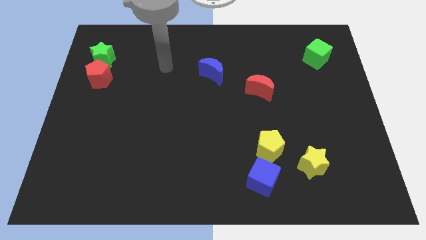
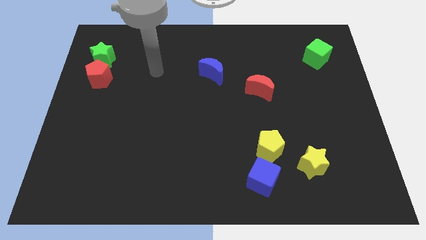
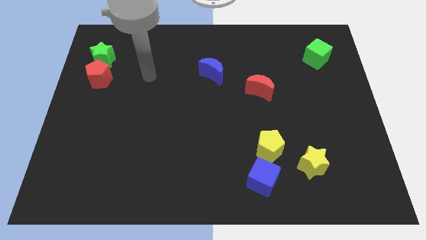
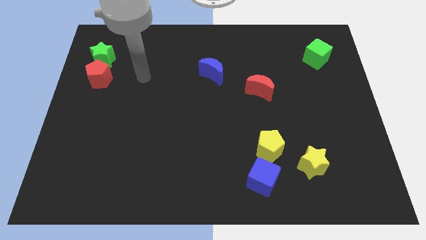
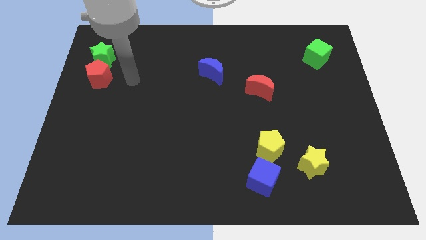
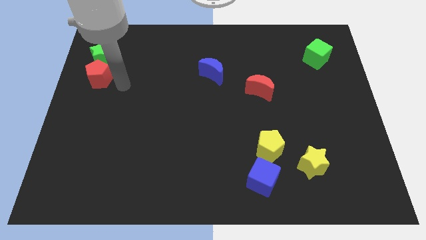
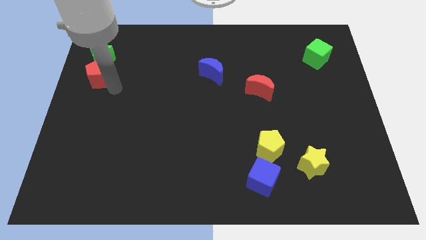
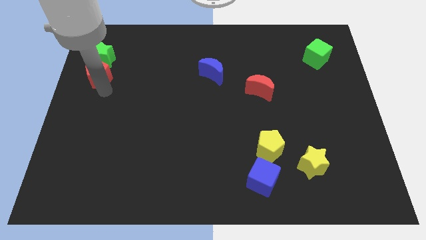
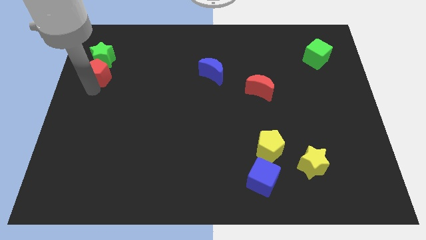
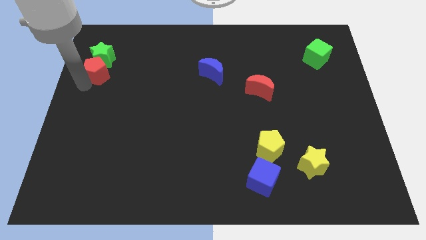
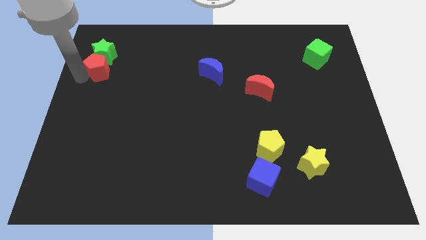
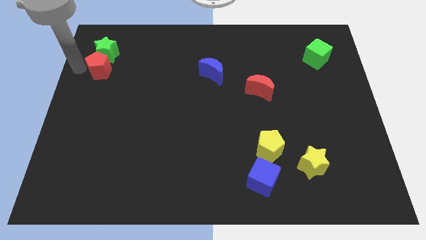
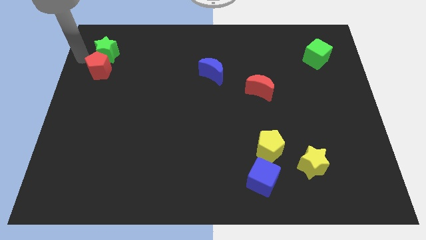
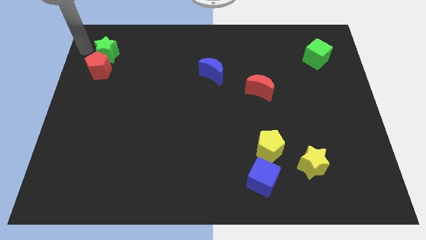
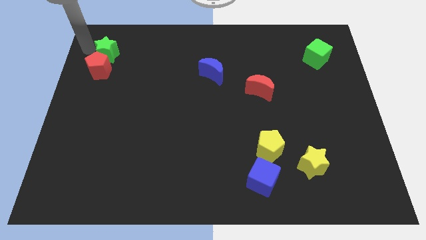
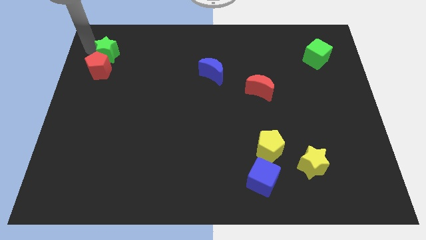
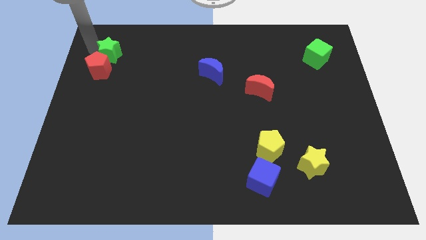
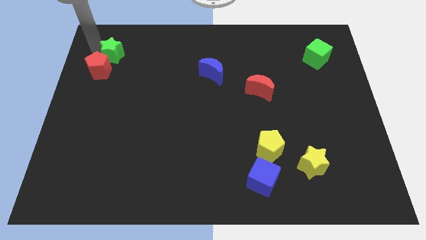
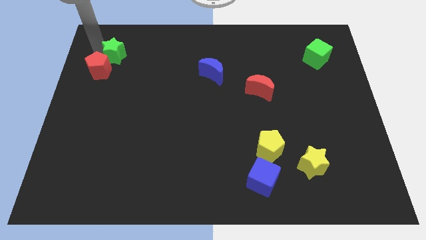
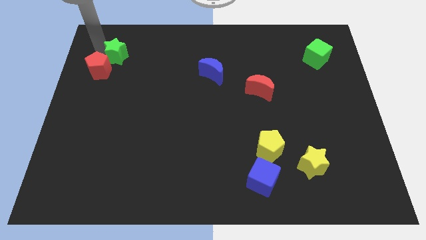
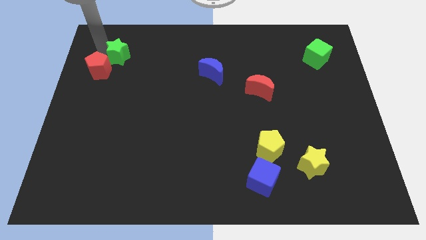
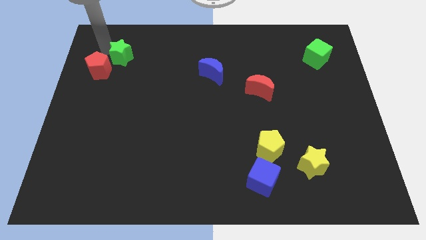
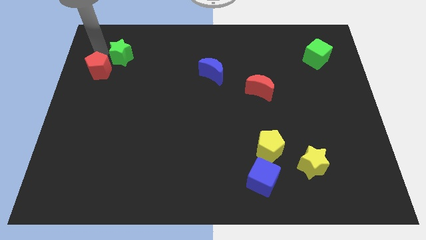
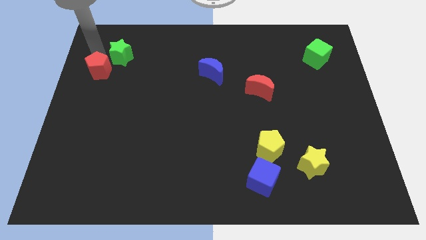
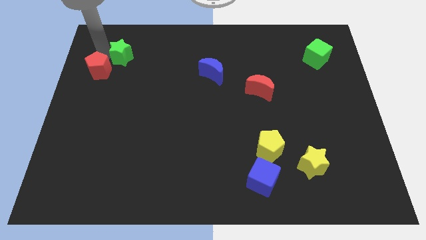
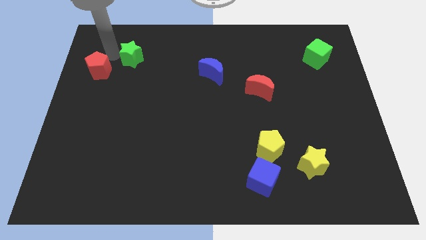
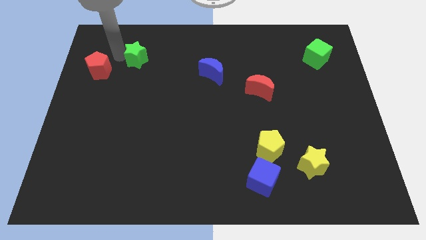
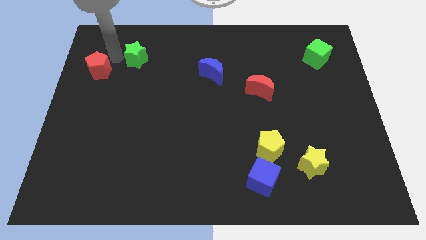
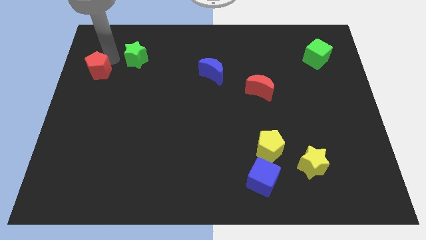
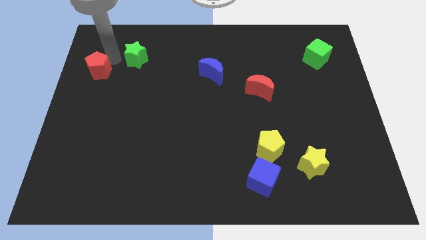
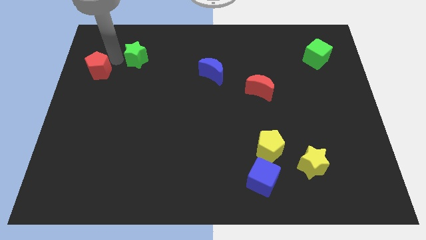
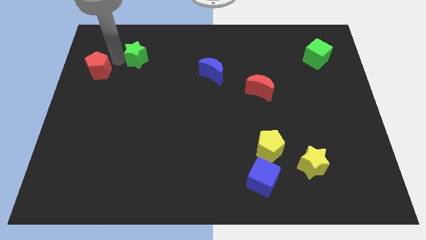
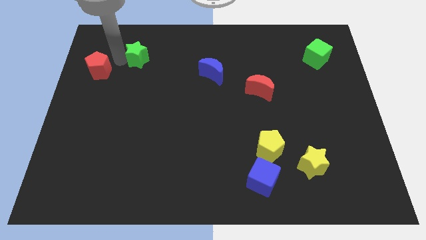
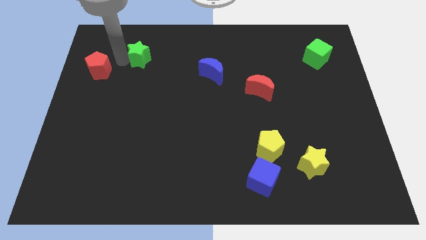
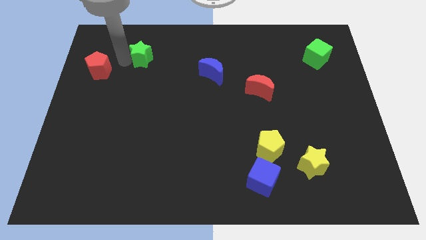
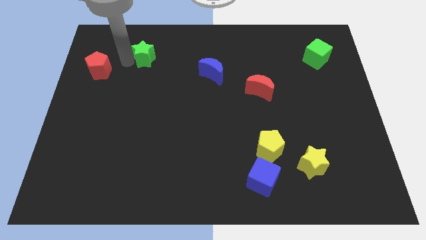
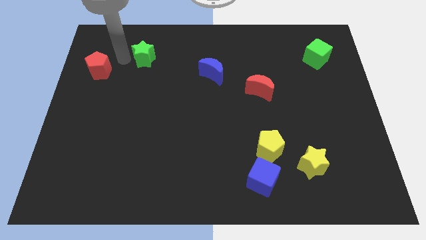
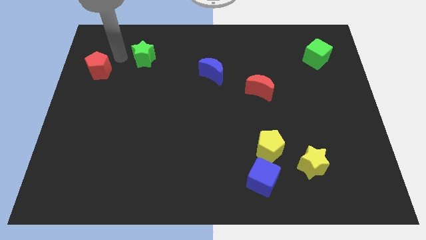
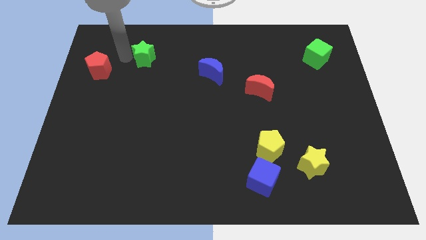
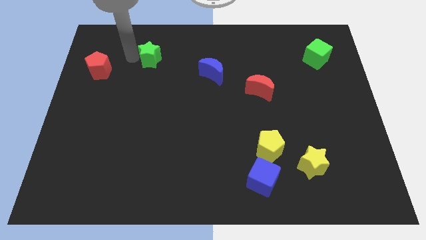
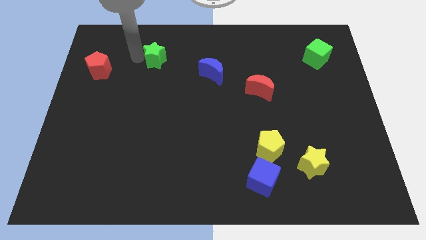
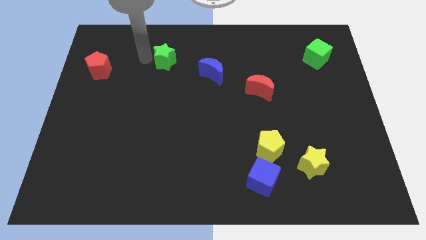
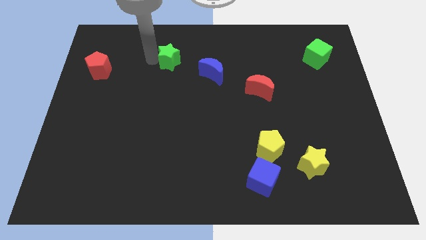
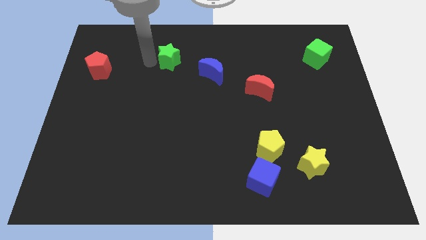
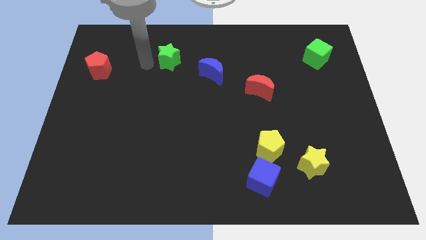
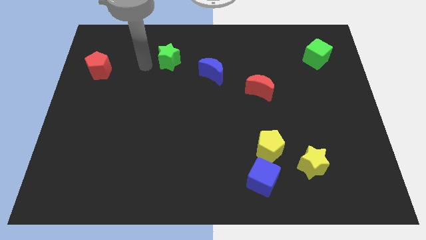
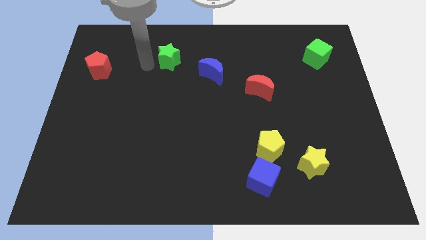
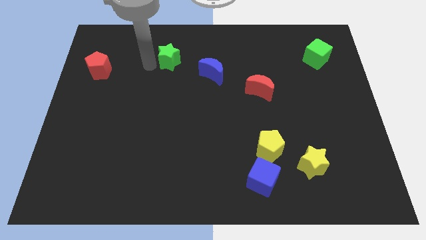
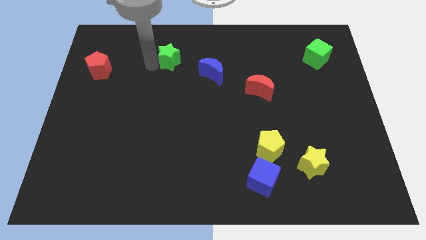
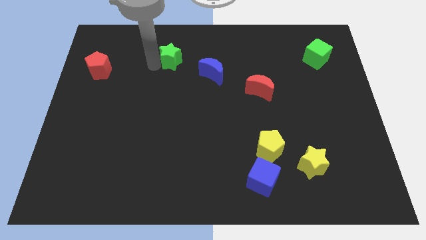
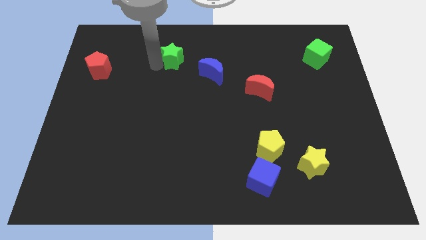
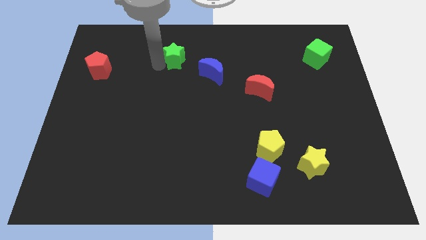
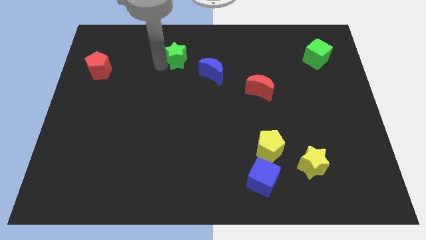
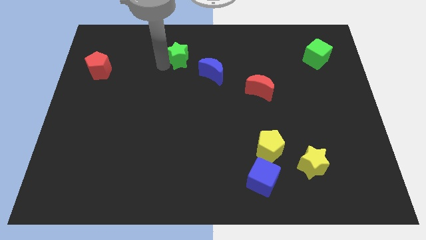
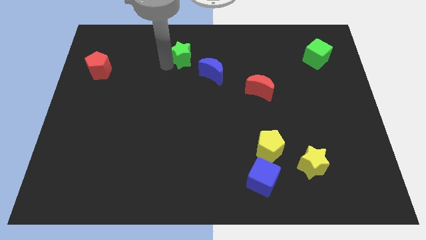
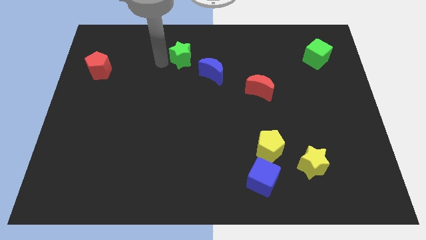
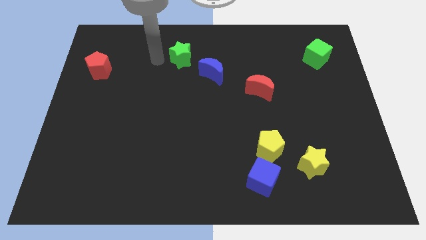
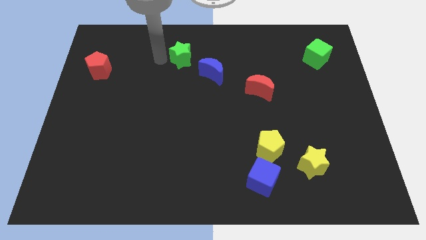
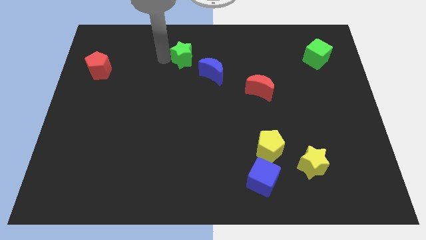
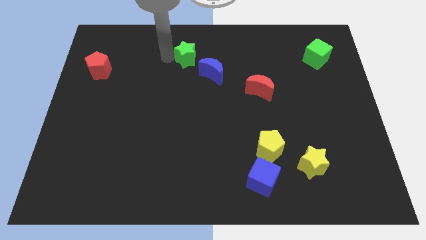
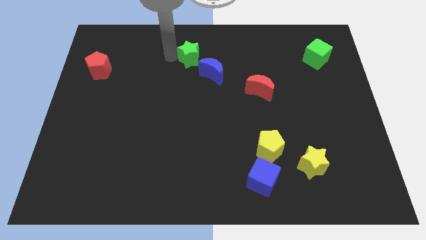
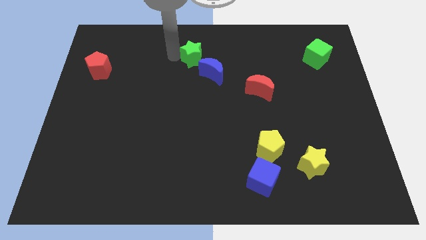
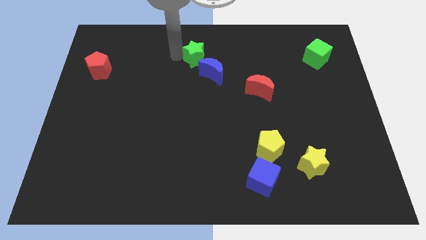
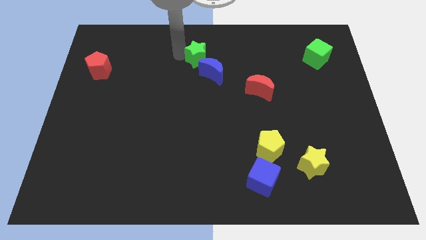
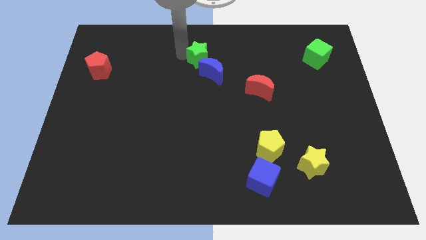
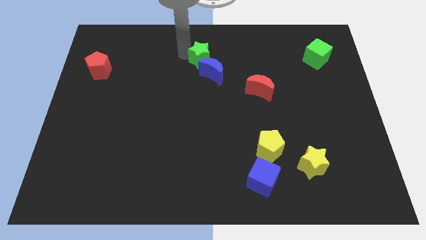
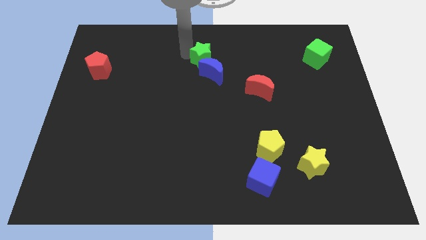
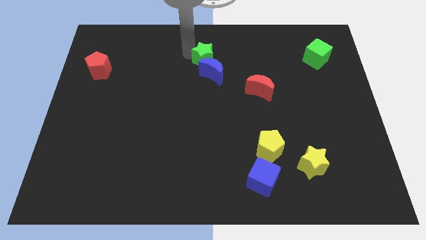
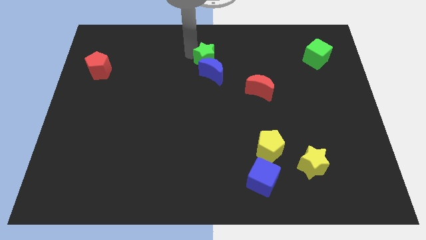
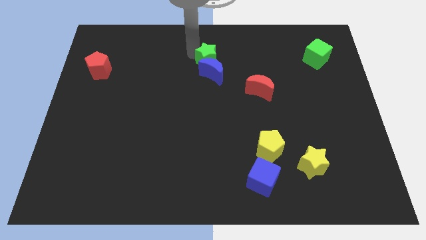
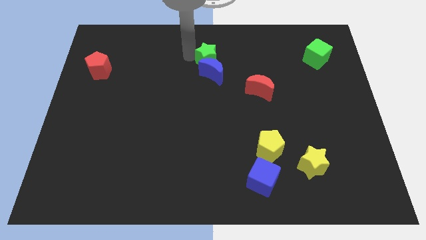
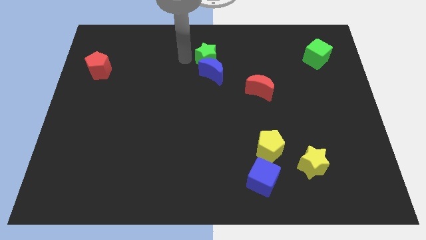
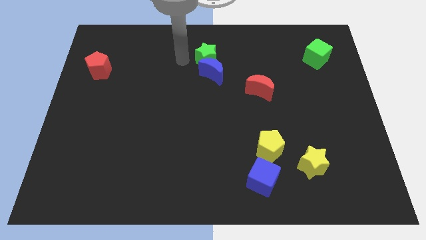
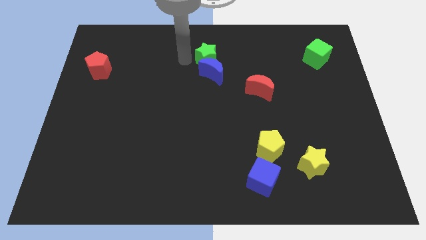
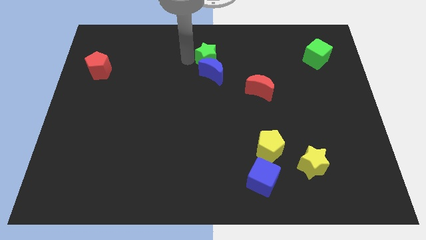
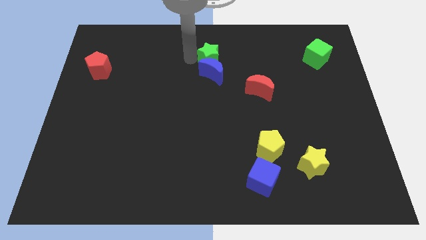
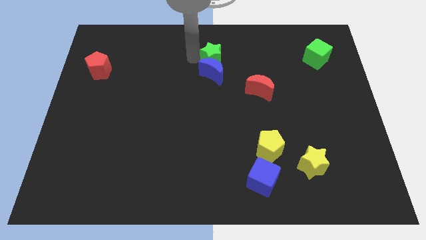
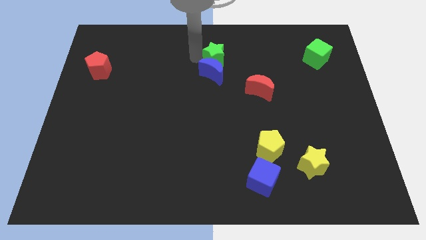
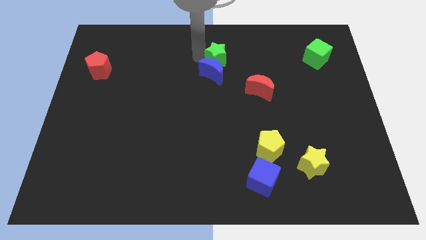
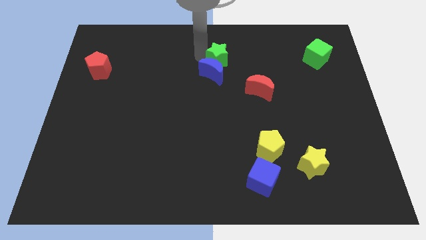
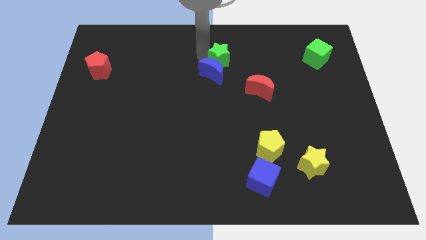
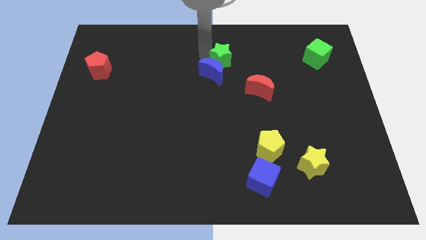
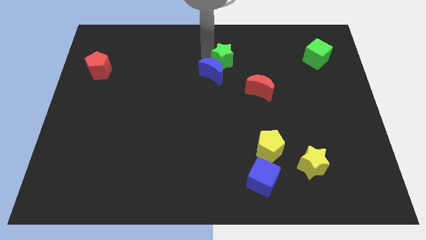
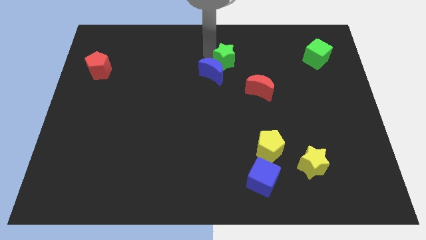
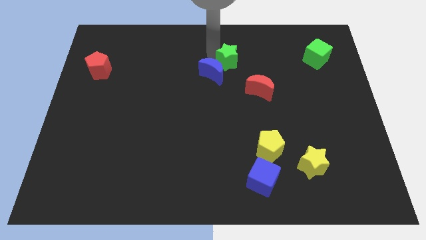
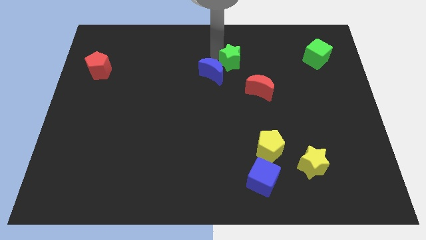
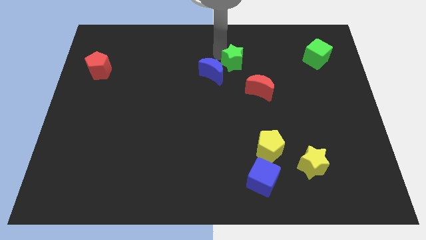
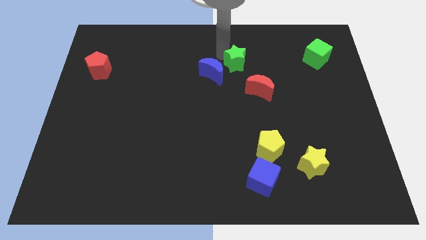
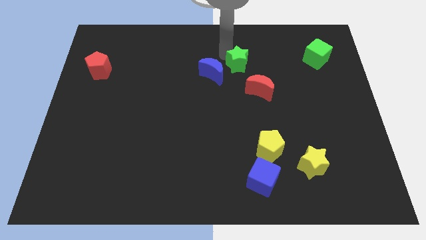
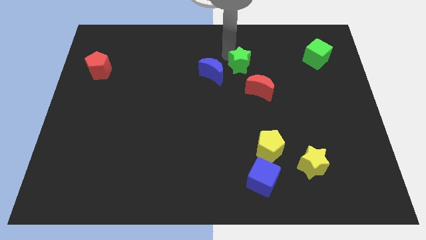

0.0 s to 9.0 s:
slide the green star to the top of the red moon
